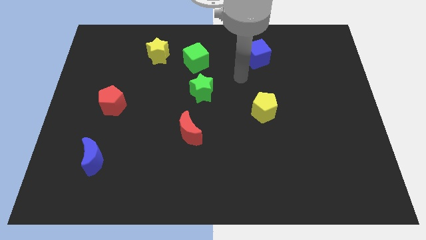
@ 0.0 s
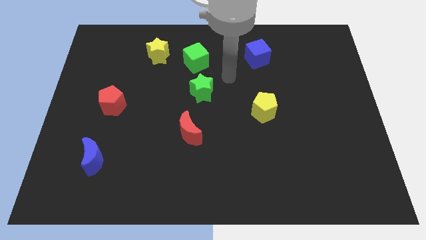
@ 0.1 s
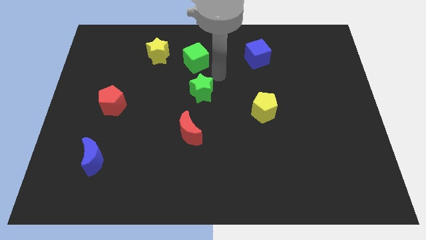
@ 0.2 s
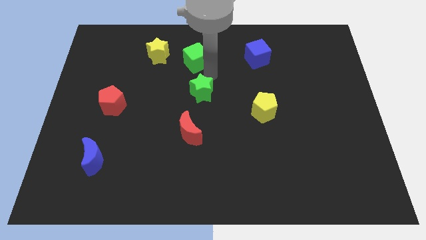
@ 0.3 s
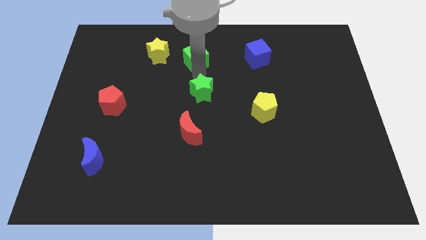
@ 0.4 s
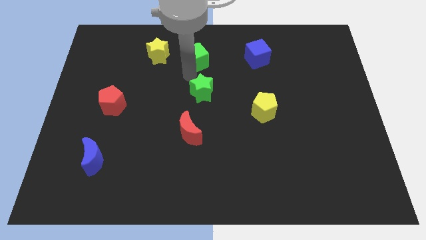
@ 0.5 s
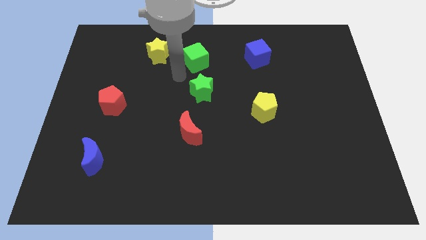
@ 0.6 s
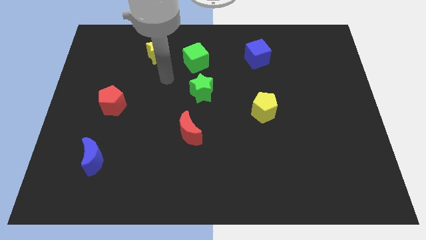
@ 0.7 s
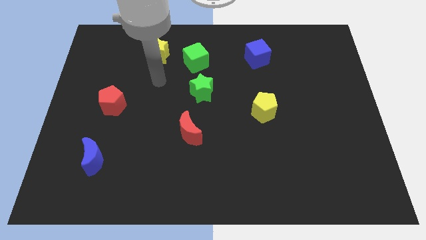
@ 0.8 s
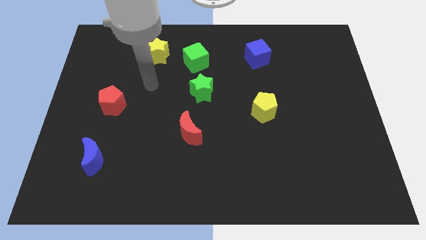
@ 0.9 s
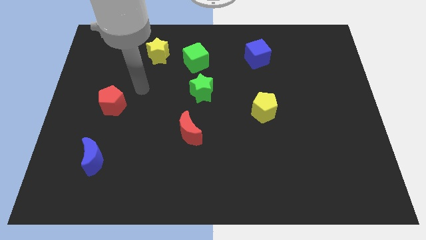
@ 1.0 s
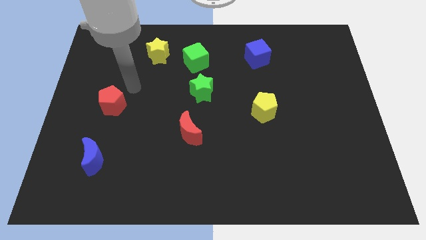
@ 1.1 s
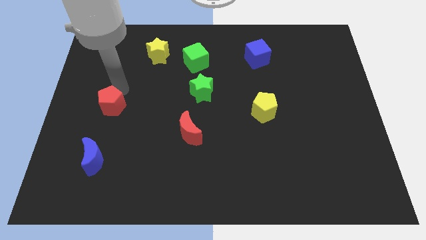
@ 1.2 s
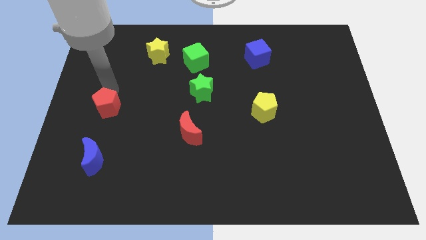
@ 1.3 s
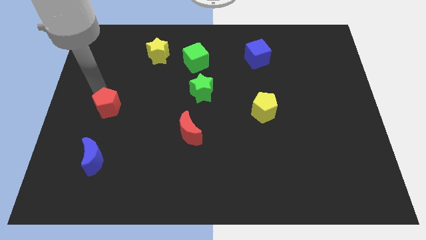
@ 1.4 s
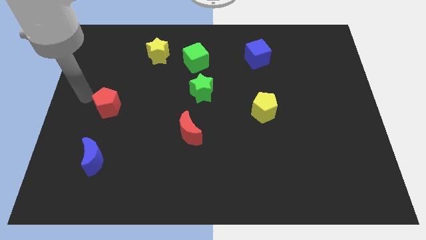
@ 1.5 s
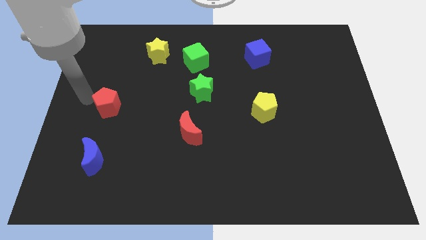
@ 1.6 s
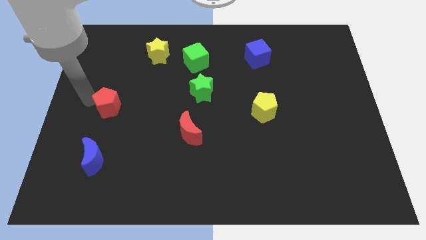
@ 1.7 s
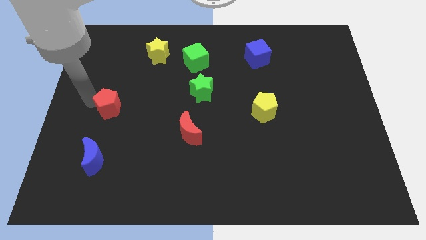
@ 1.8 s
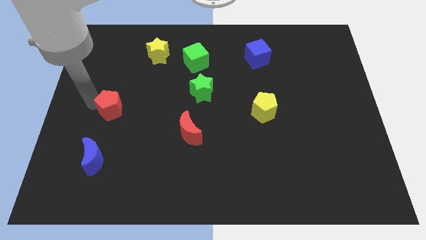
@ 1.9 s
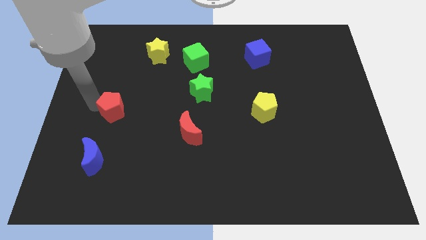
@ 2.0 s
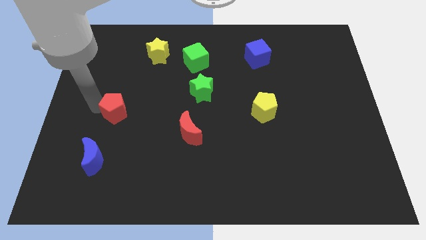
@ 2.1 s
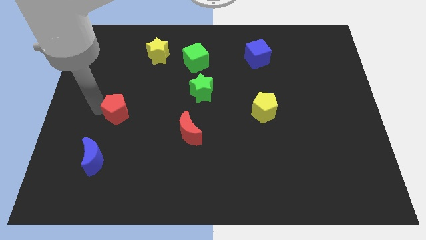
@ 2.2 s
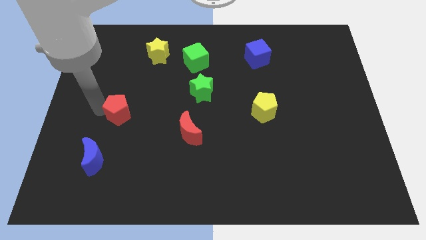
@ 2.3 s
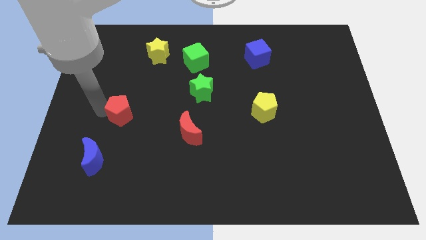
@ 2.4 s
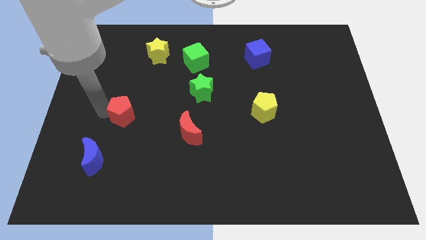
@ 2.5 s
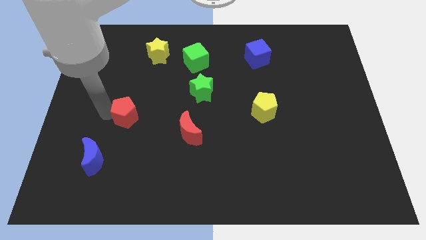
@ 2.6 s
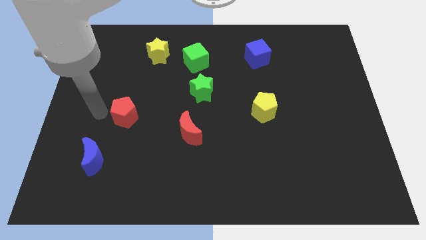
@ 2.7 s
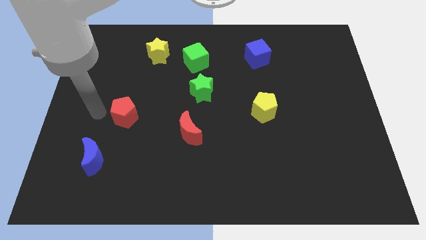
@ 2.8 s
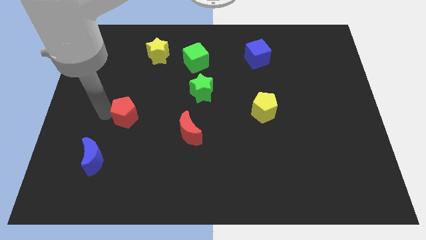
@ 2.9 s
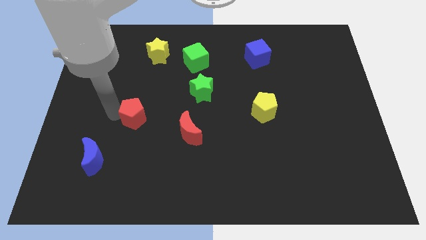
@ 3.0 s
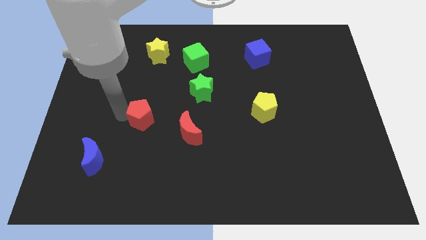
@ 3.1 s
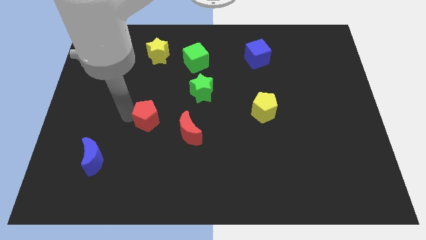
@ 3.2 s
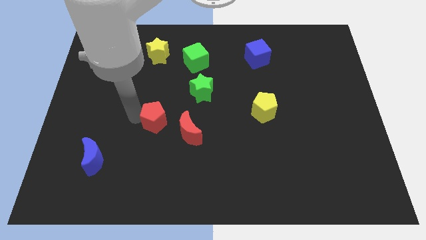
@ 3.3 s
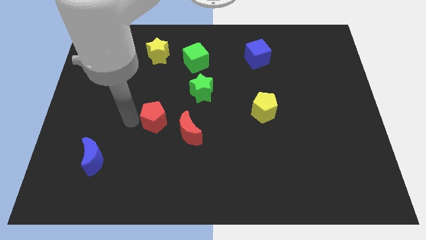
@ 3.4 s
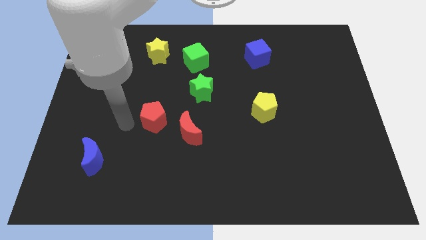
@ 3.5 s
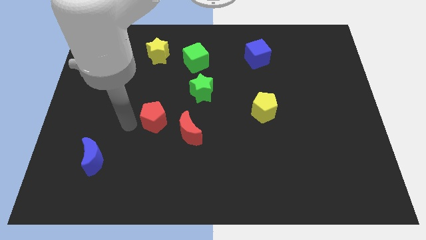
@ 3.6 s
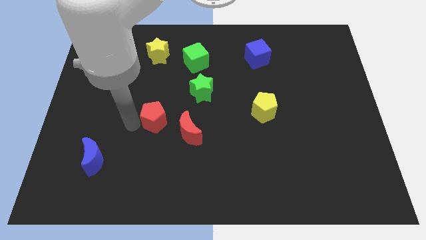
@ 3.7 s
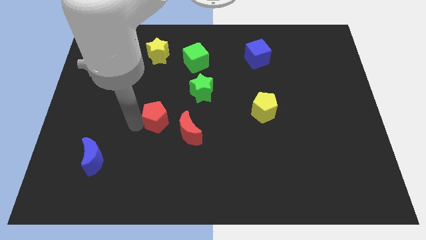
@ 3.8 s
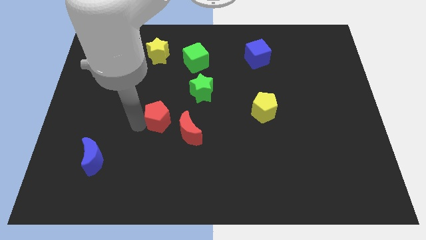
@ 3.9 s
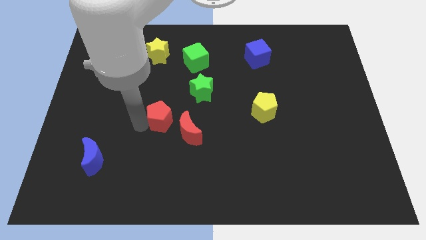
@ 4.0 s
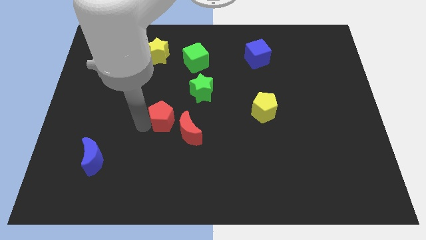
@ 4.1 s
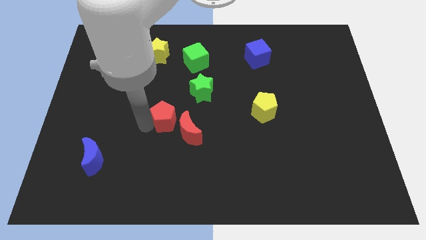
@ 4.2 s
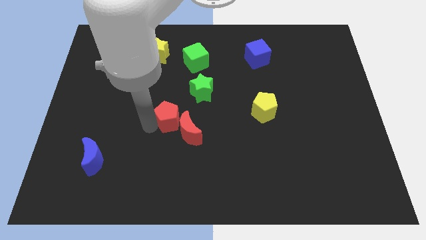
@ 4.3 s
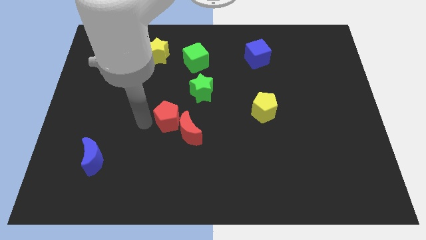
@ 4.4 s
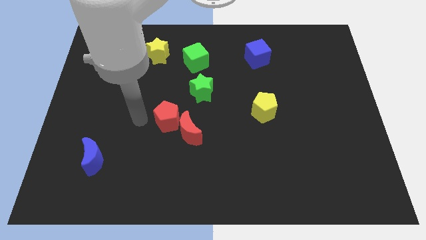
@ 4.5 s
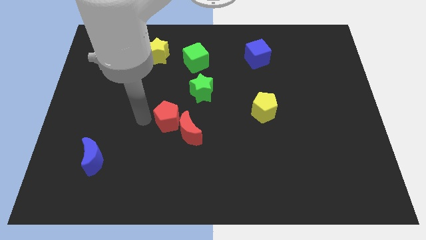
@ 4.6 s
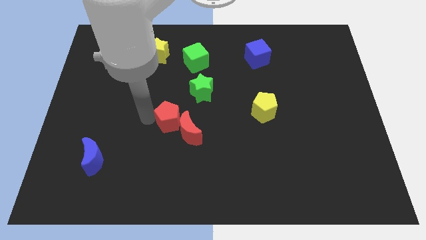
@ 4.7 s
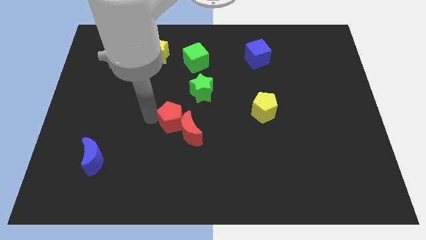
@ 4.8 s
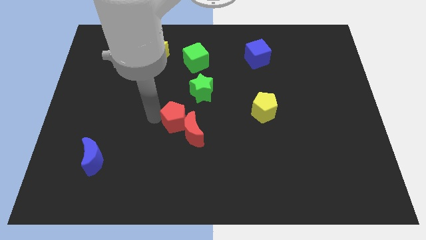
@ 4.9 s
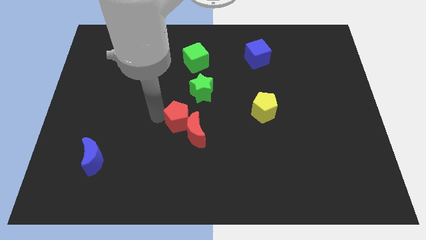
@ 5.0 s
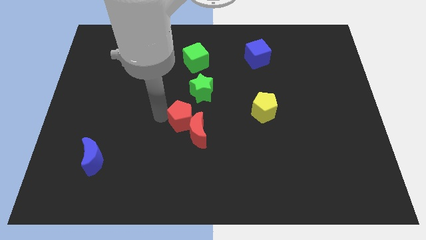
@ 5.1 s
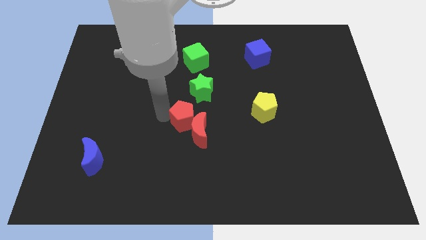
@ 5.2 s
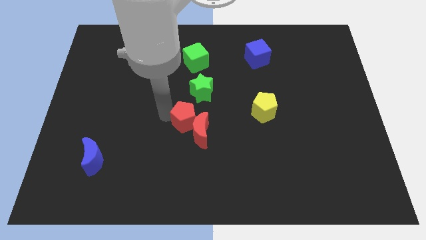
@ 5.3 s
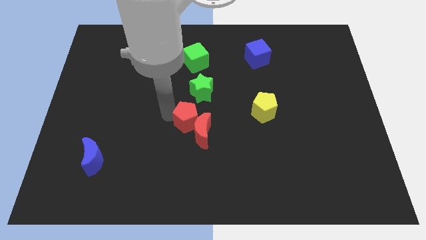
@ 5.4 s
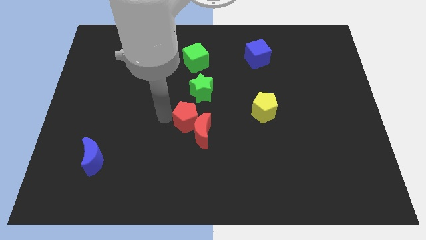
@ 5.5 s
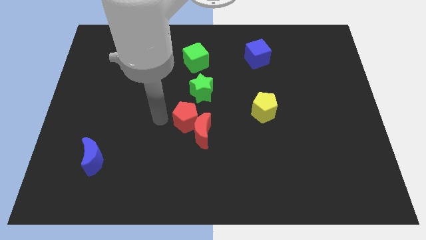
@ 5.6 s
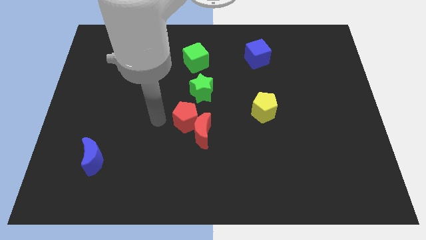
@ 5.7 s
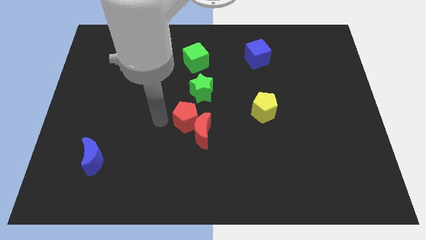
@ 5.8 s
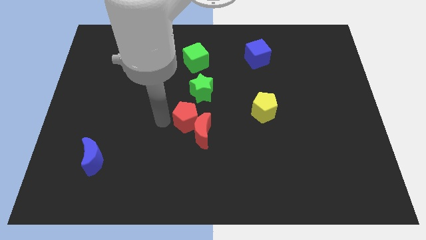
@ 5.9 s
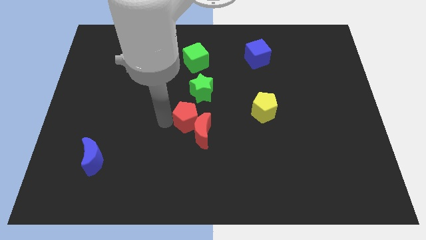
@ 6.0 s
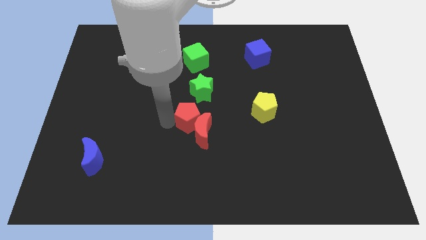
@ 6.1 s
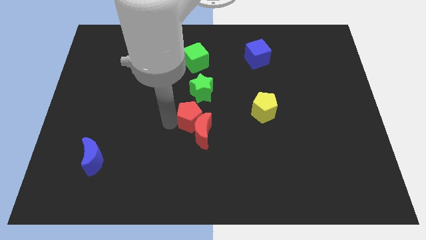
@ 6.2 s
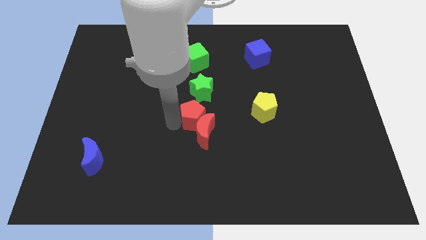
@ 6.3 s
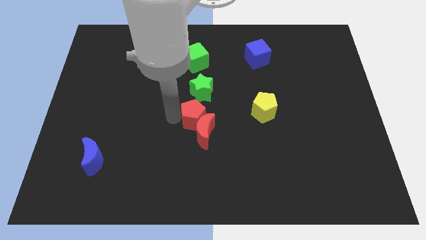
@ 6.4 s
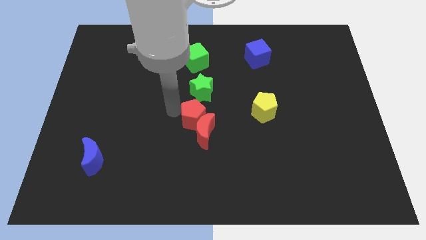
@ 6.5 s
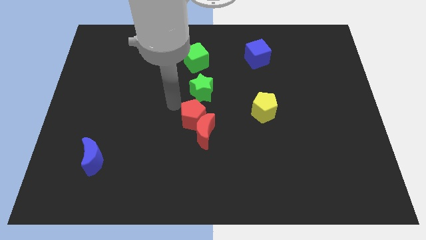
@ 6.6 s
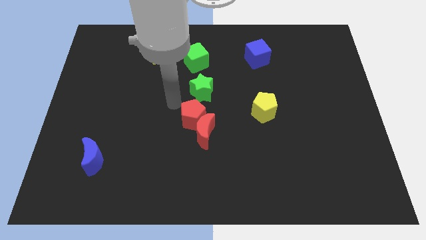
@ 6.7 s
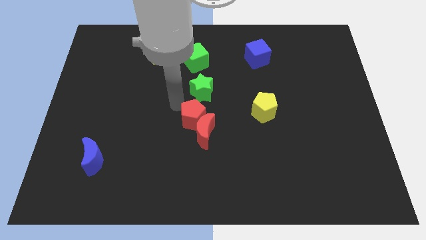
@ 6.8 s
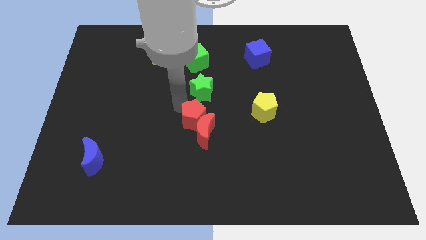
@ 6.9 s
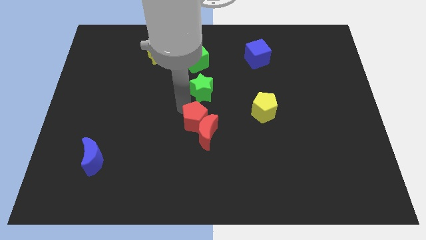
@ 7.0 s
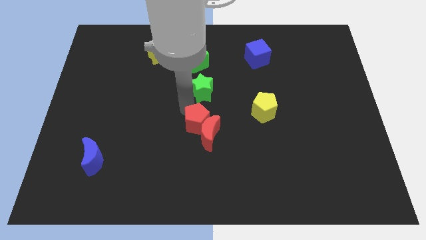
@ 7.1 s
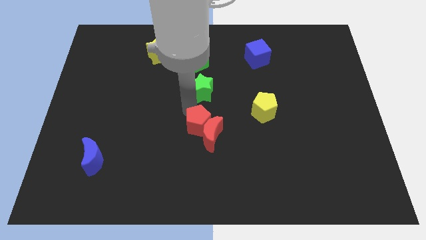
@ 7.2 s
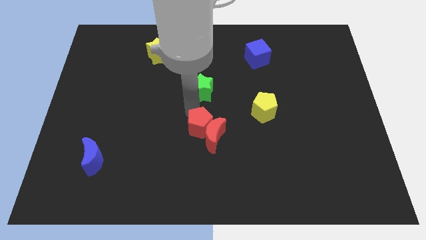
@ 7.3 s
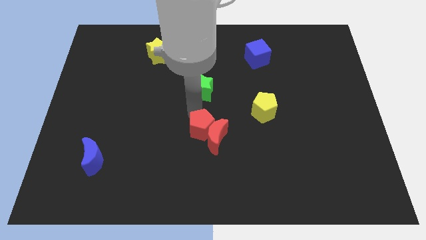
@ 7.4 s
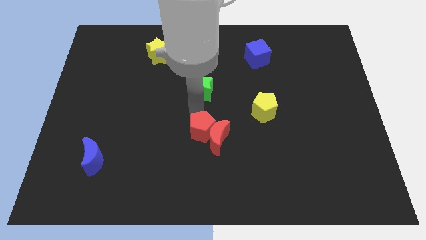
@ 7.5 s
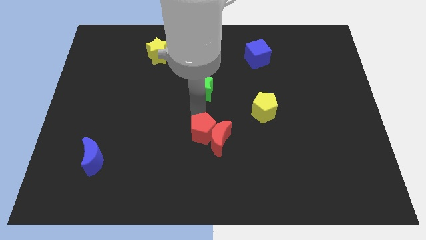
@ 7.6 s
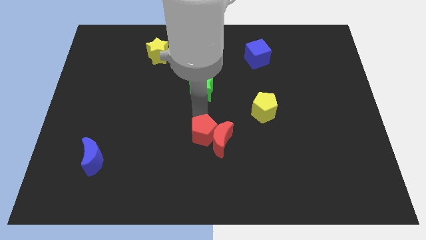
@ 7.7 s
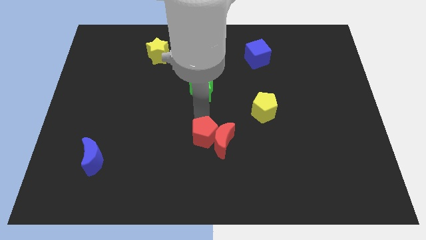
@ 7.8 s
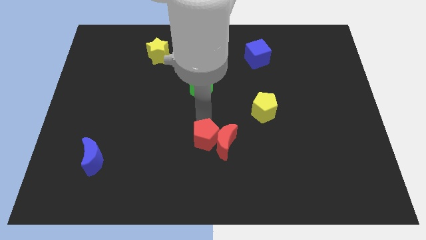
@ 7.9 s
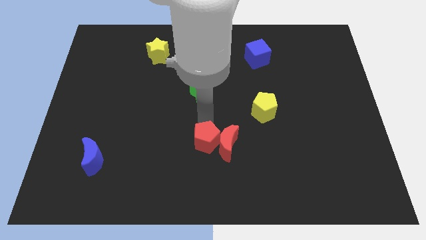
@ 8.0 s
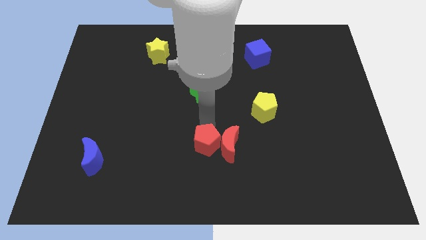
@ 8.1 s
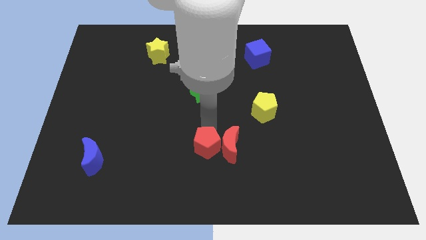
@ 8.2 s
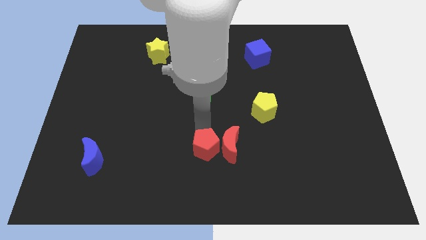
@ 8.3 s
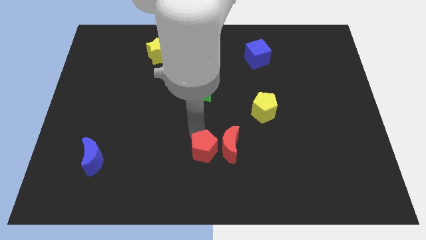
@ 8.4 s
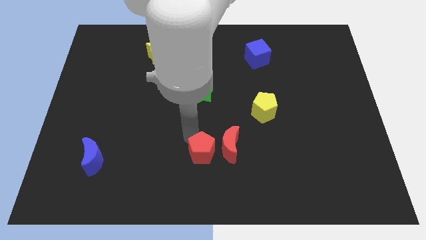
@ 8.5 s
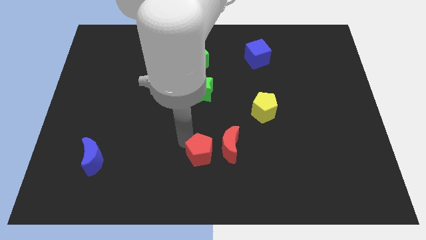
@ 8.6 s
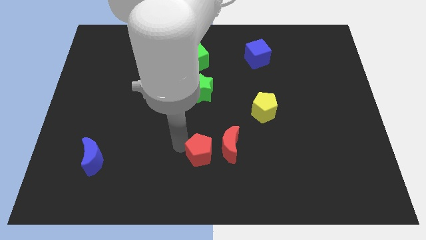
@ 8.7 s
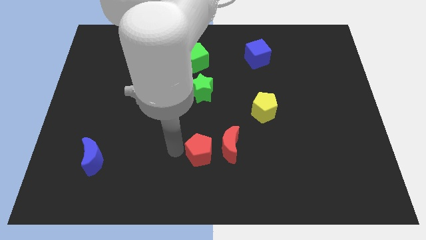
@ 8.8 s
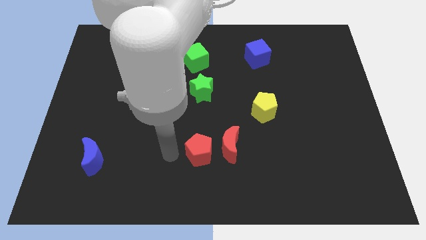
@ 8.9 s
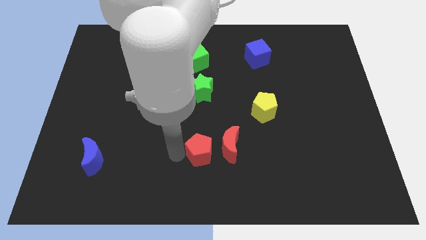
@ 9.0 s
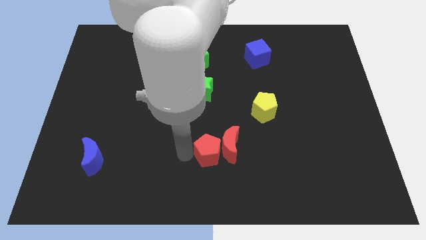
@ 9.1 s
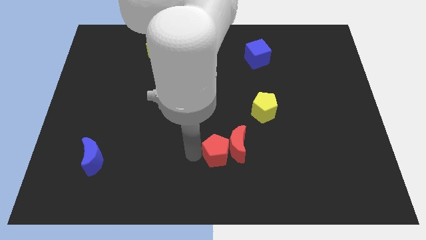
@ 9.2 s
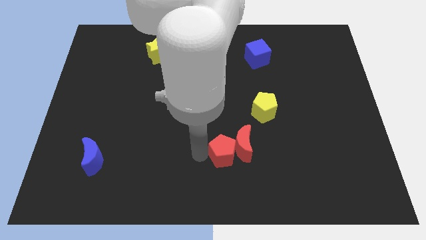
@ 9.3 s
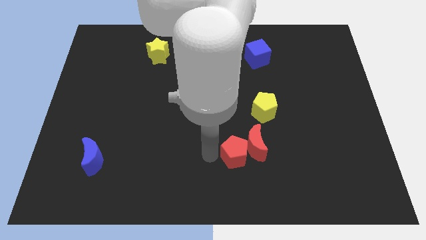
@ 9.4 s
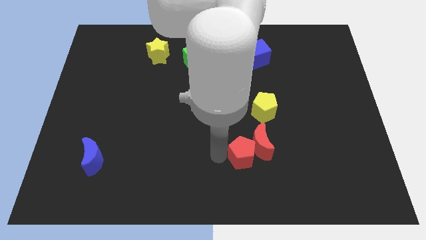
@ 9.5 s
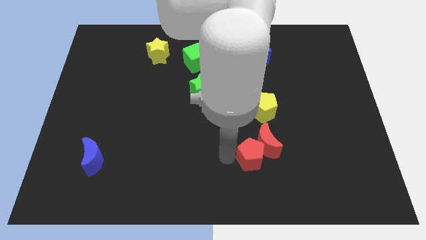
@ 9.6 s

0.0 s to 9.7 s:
push the red pentagon below the yellow pentagon
